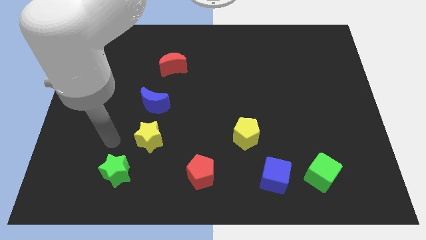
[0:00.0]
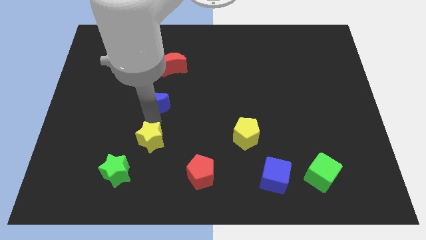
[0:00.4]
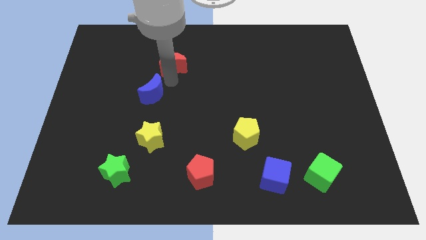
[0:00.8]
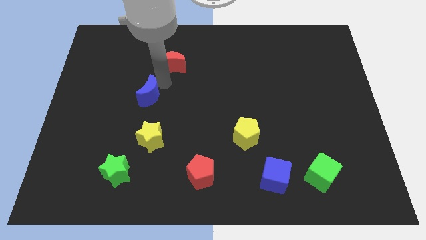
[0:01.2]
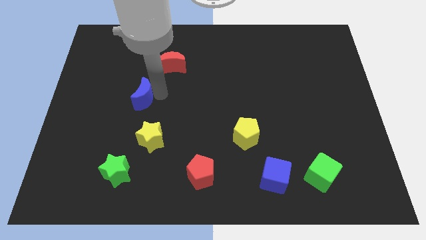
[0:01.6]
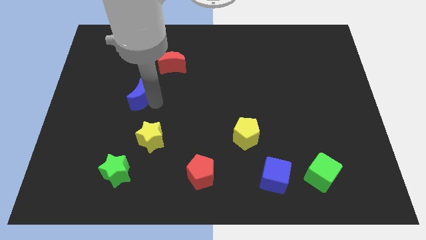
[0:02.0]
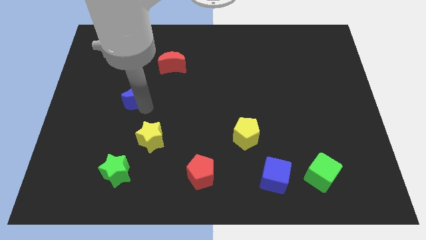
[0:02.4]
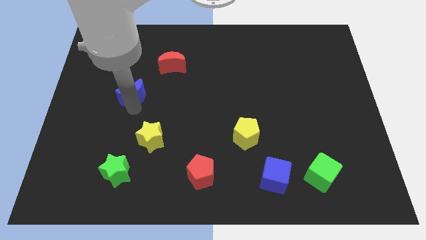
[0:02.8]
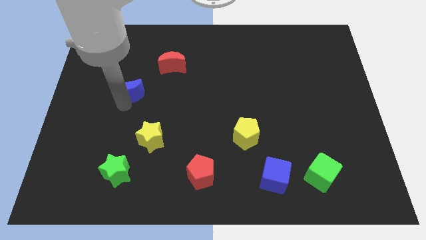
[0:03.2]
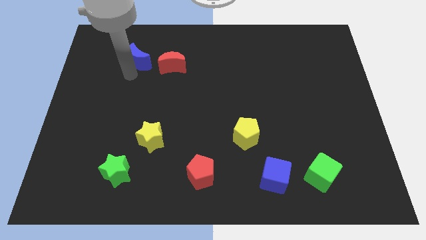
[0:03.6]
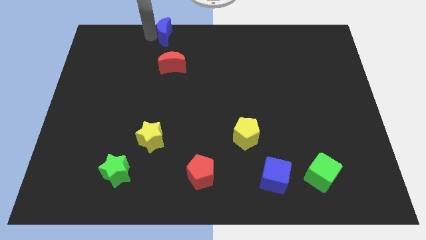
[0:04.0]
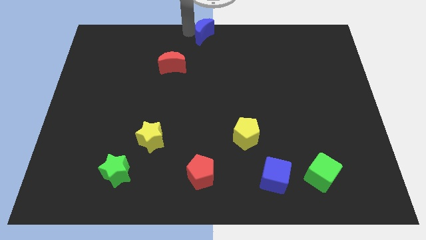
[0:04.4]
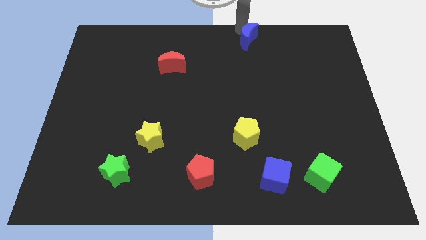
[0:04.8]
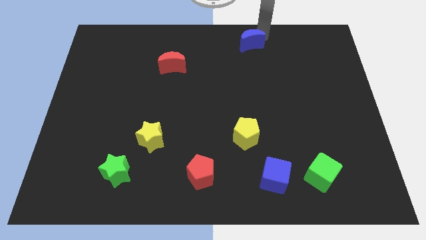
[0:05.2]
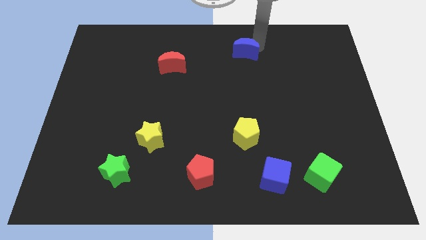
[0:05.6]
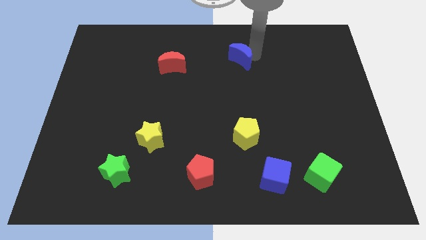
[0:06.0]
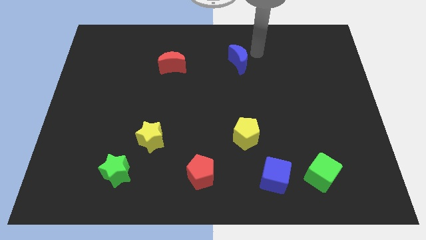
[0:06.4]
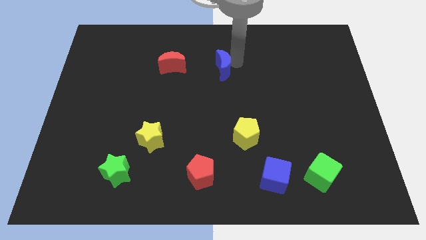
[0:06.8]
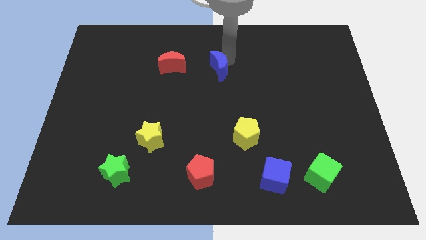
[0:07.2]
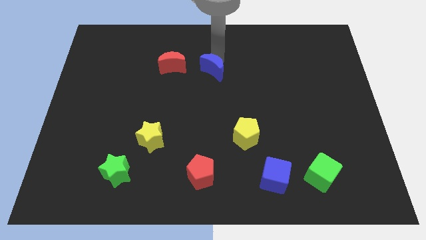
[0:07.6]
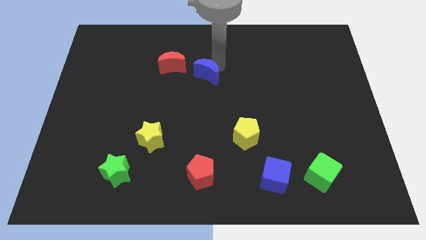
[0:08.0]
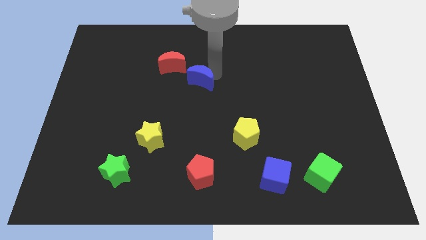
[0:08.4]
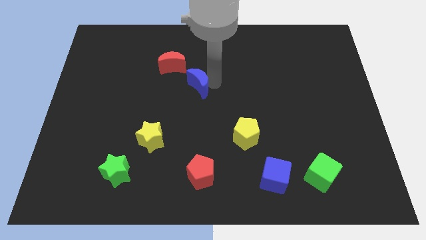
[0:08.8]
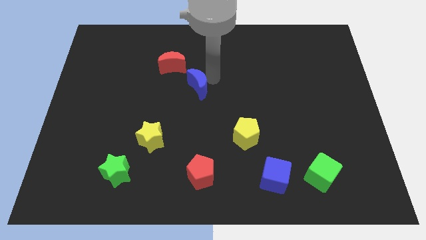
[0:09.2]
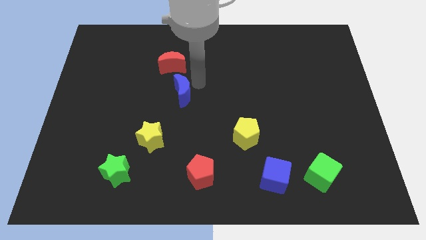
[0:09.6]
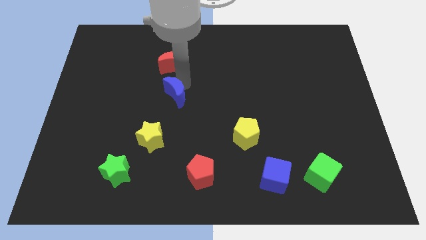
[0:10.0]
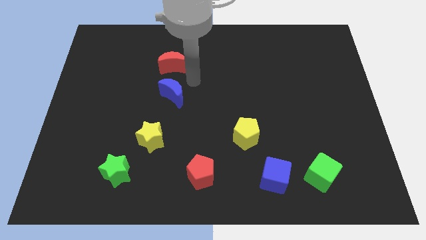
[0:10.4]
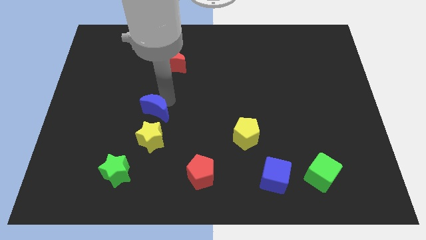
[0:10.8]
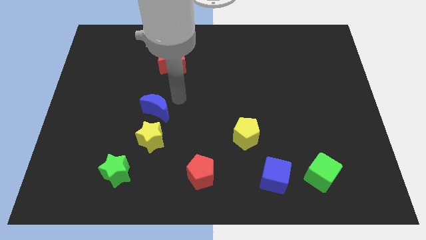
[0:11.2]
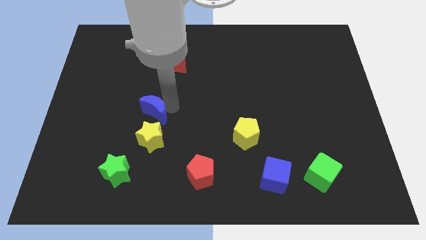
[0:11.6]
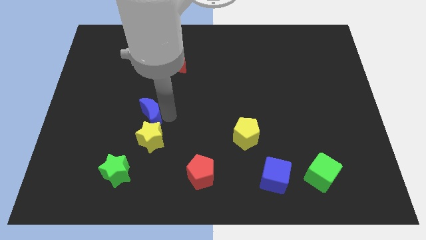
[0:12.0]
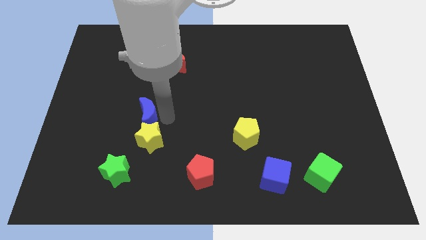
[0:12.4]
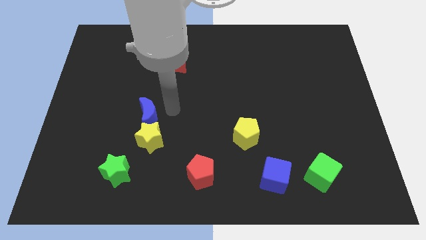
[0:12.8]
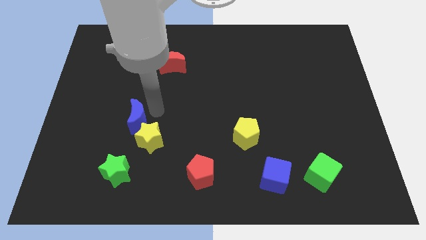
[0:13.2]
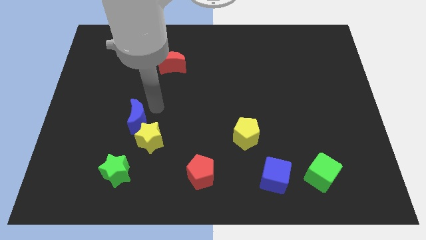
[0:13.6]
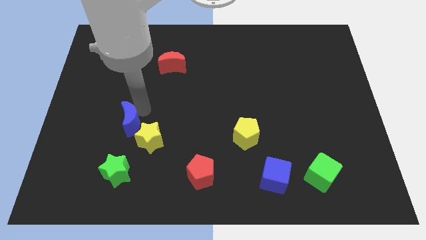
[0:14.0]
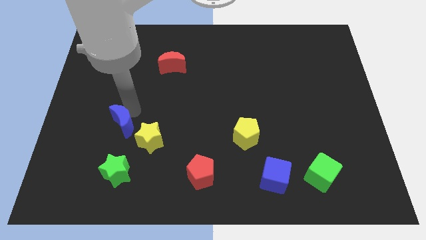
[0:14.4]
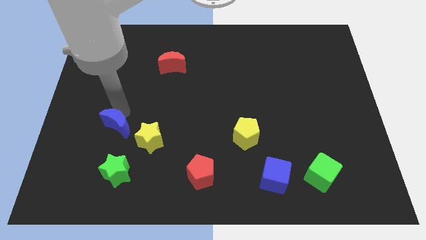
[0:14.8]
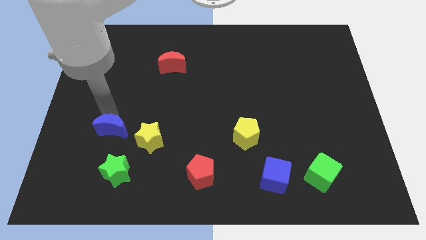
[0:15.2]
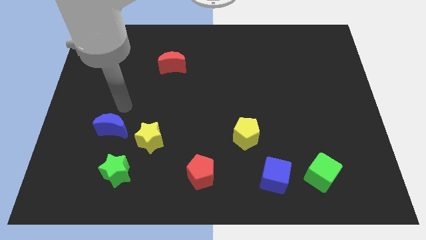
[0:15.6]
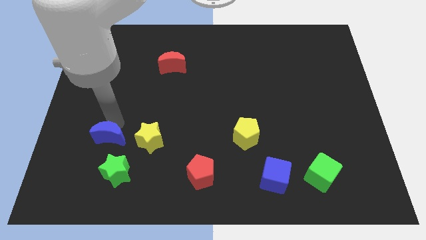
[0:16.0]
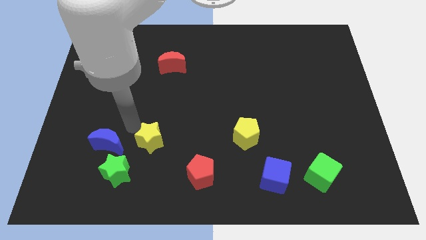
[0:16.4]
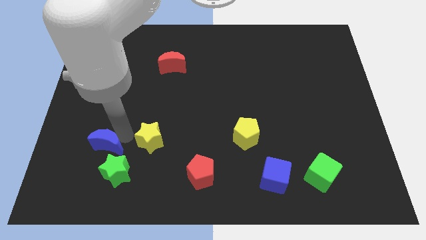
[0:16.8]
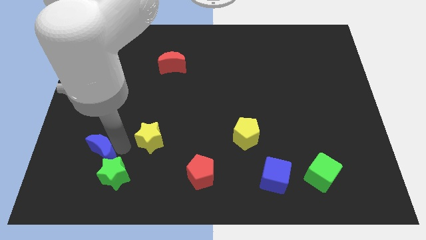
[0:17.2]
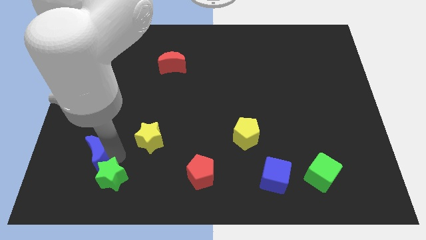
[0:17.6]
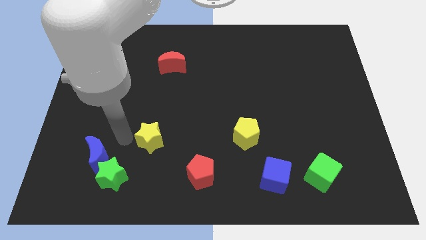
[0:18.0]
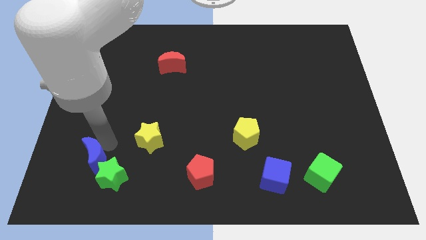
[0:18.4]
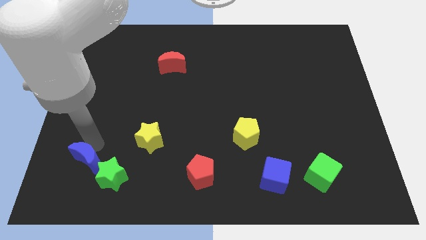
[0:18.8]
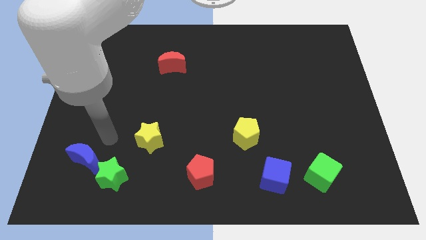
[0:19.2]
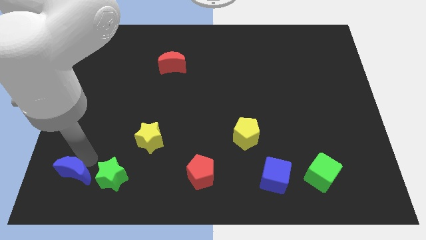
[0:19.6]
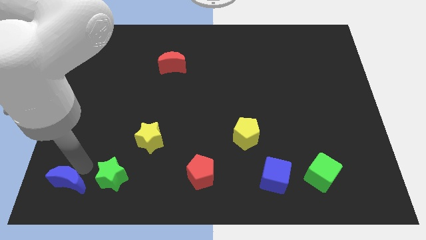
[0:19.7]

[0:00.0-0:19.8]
put the blue moon to the bottom left of the board

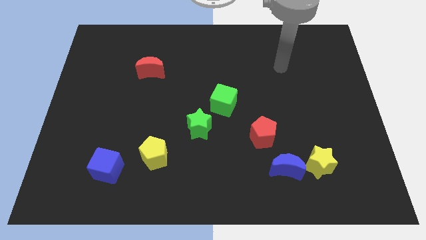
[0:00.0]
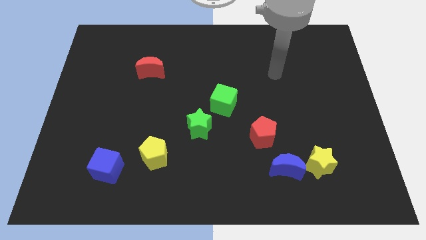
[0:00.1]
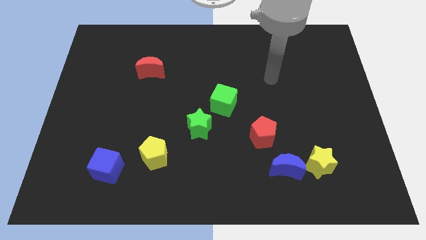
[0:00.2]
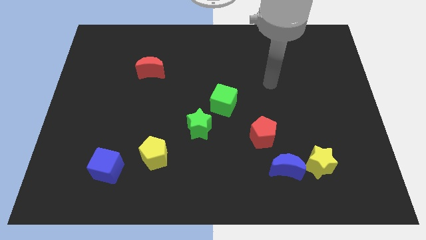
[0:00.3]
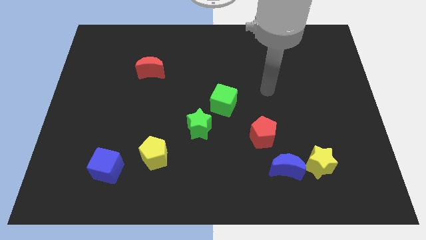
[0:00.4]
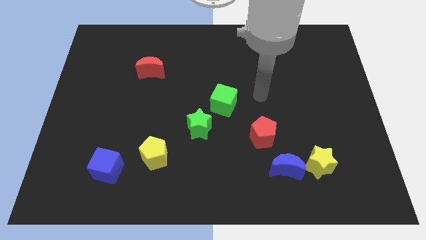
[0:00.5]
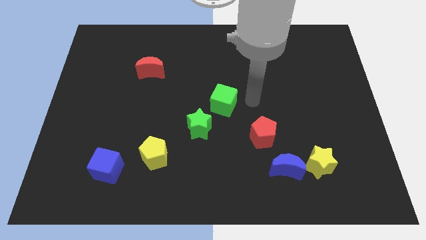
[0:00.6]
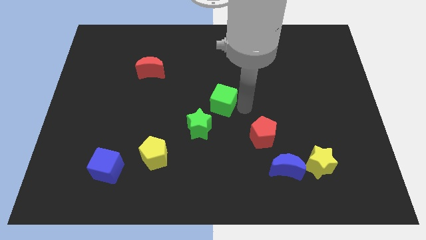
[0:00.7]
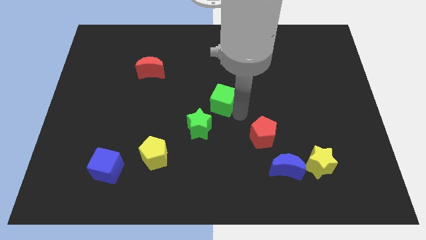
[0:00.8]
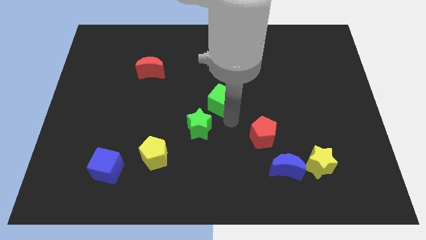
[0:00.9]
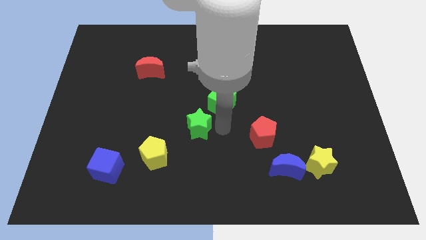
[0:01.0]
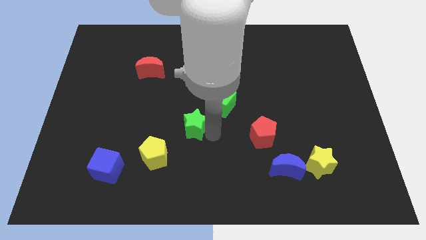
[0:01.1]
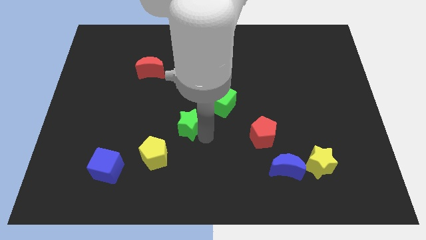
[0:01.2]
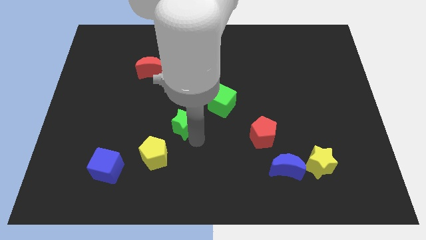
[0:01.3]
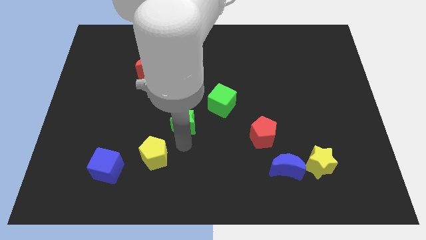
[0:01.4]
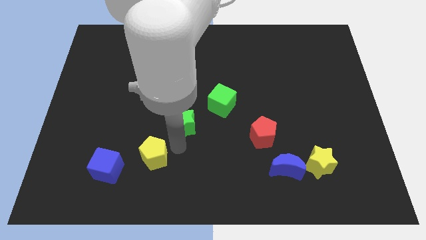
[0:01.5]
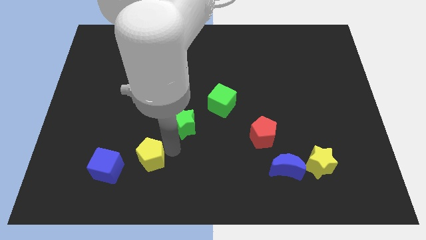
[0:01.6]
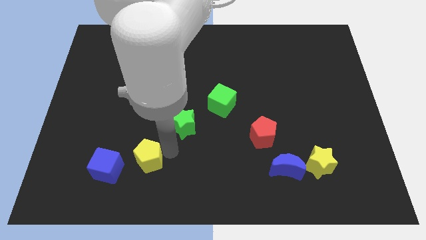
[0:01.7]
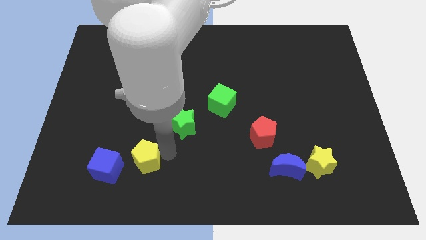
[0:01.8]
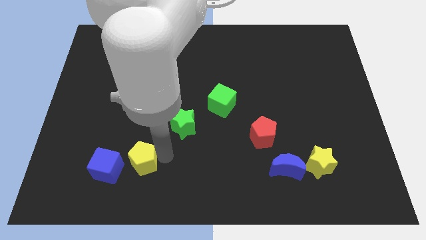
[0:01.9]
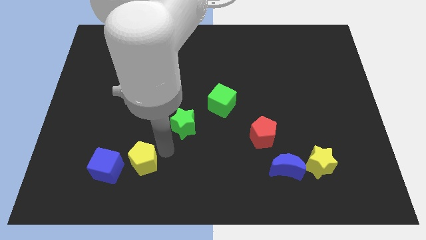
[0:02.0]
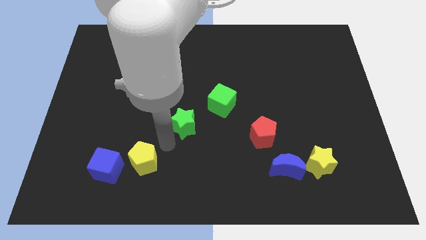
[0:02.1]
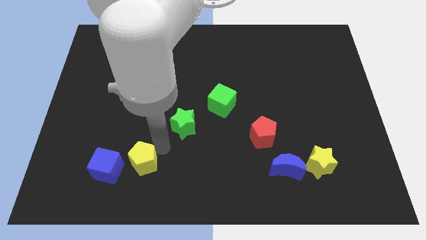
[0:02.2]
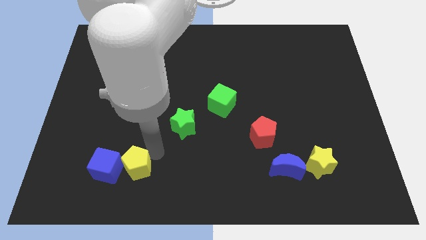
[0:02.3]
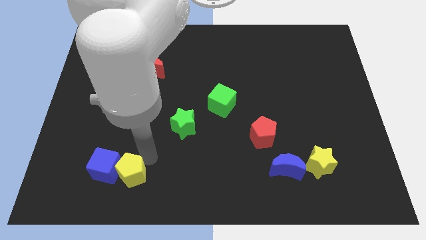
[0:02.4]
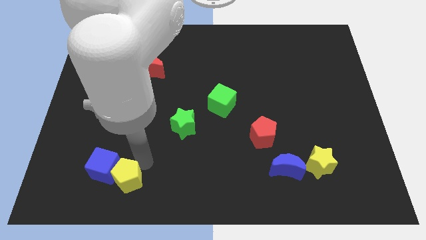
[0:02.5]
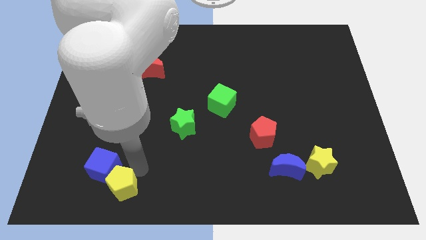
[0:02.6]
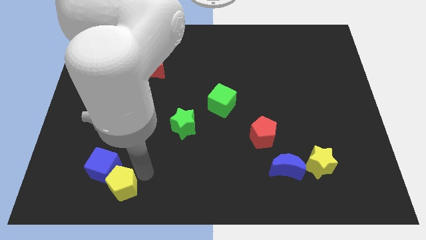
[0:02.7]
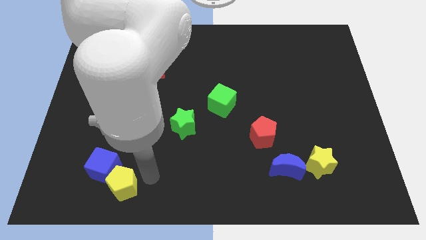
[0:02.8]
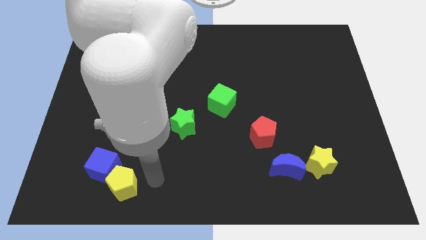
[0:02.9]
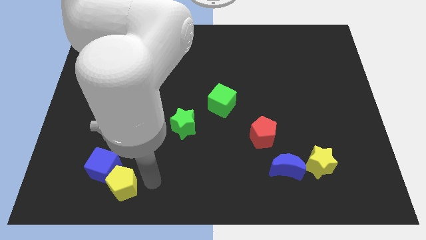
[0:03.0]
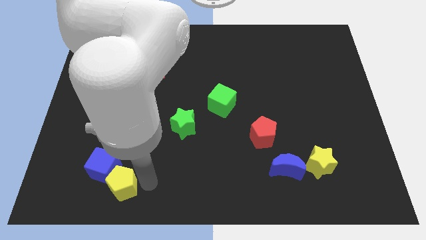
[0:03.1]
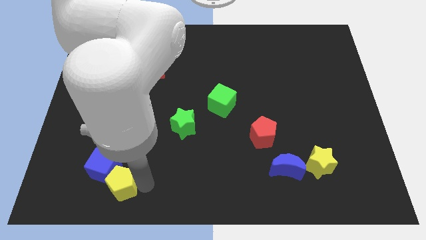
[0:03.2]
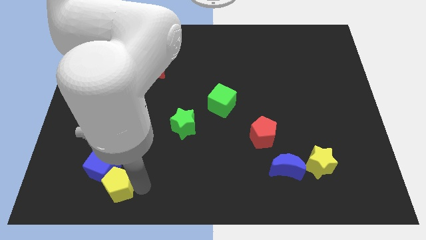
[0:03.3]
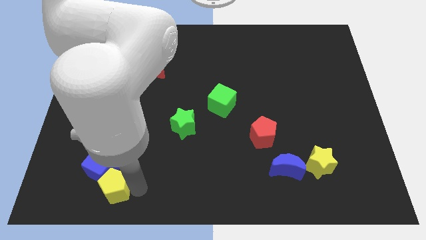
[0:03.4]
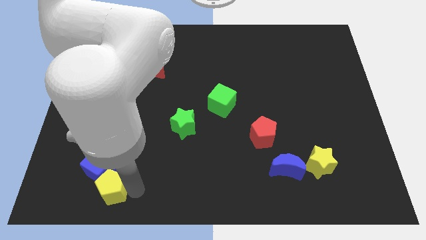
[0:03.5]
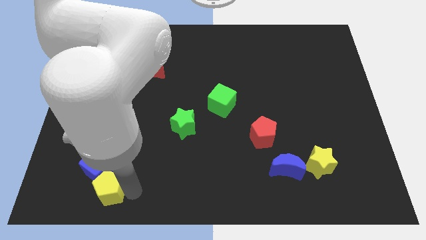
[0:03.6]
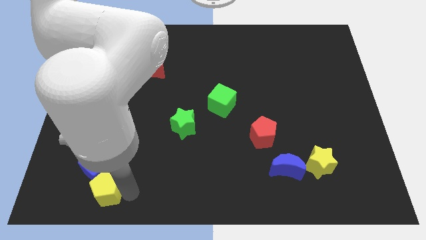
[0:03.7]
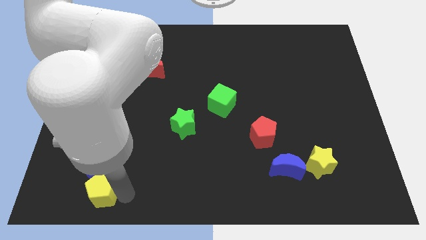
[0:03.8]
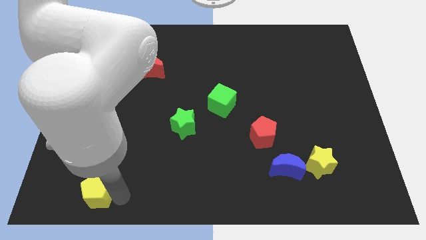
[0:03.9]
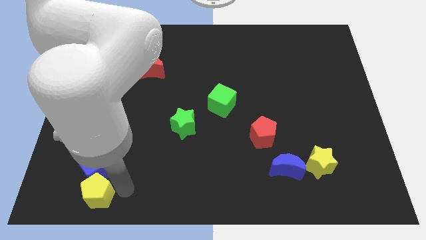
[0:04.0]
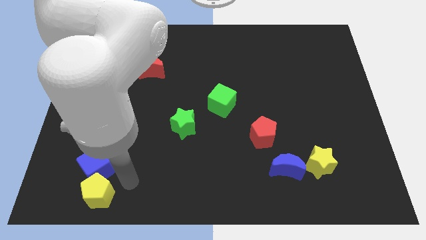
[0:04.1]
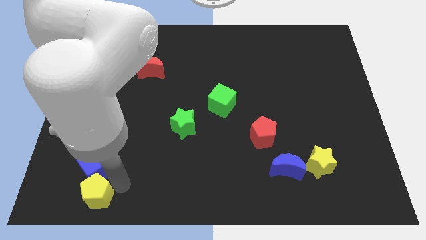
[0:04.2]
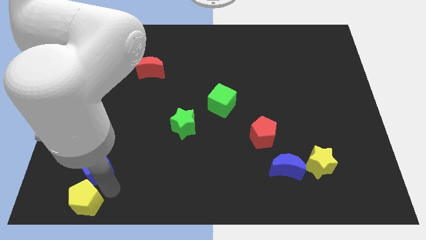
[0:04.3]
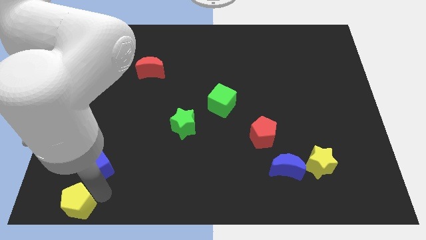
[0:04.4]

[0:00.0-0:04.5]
slide the yellow pentagon to the lower left corner
